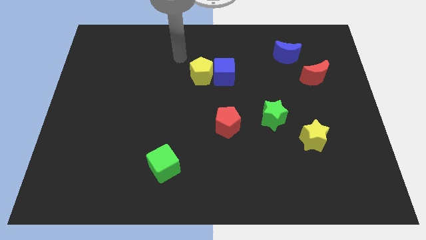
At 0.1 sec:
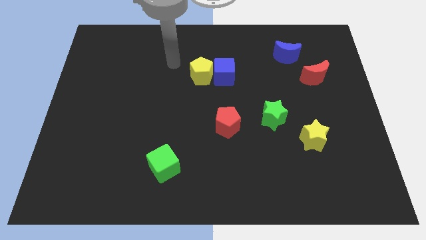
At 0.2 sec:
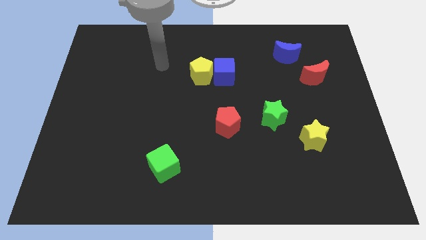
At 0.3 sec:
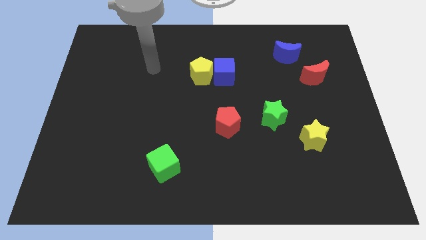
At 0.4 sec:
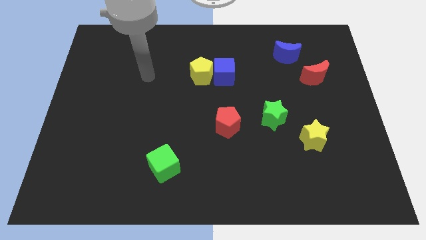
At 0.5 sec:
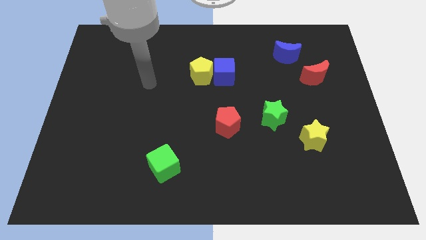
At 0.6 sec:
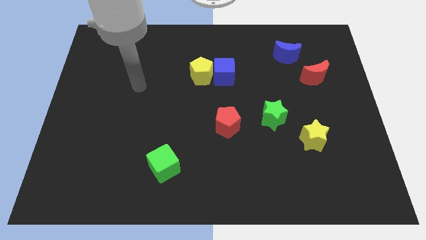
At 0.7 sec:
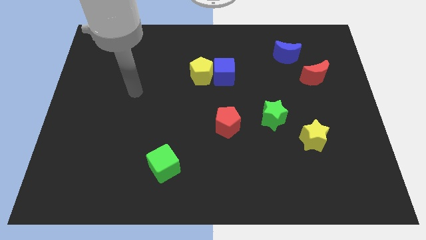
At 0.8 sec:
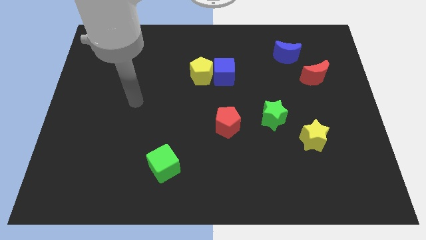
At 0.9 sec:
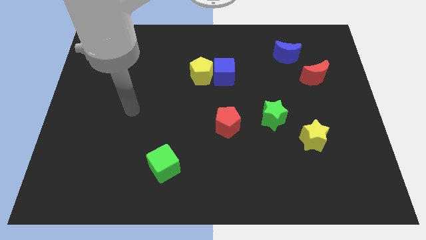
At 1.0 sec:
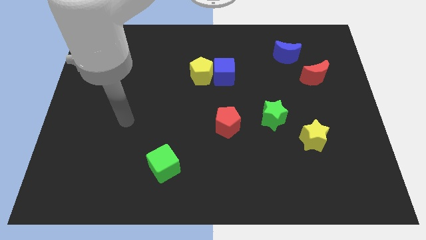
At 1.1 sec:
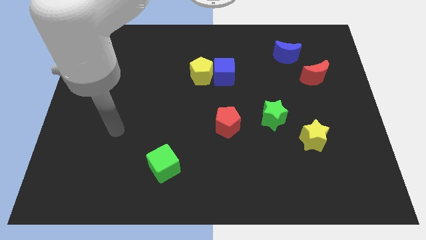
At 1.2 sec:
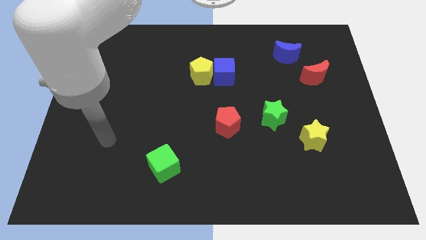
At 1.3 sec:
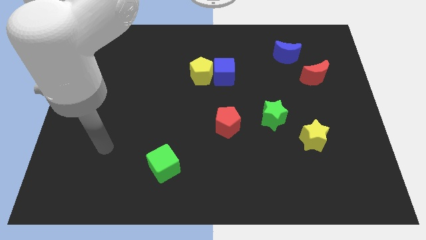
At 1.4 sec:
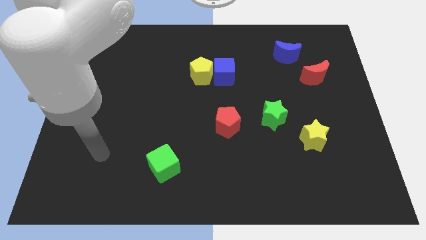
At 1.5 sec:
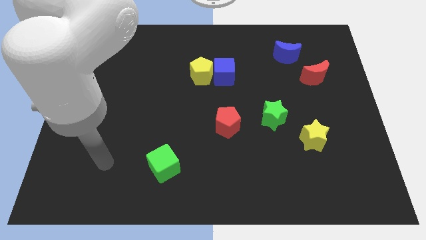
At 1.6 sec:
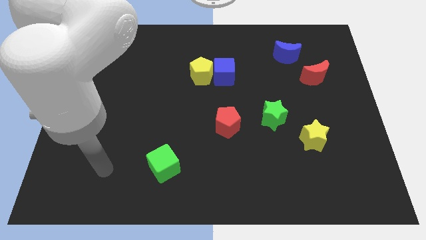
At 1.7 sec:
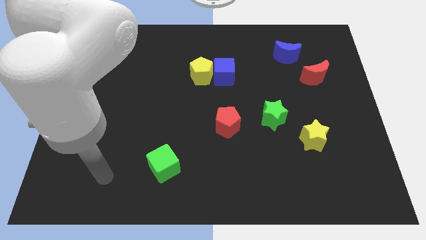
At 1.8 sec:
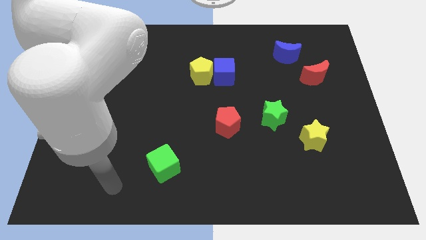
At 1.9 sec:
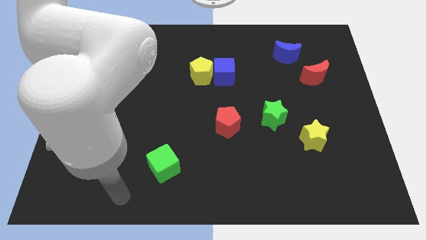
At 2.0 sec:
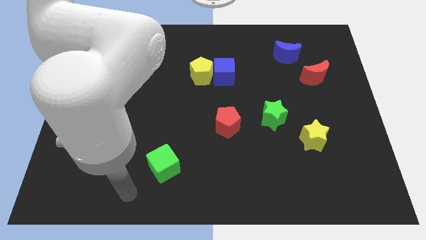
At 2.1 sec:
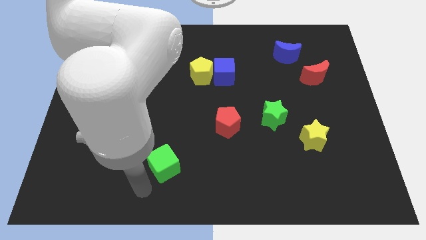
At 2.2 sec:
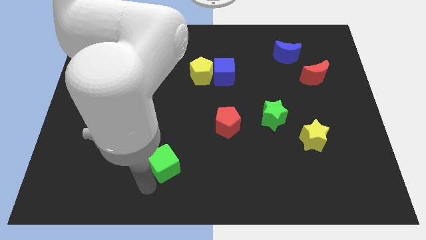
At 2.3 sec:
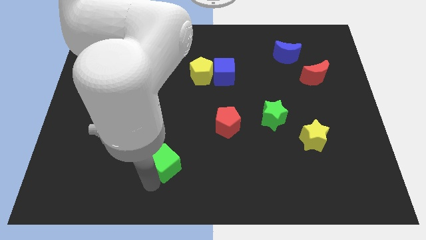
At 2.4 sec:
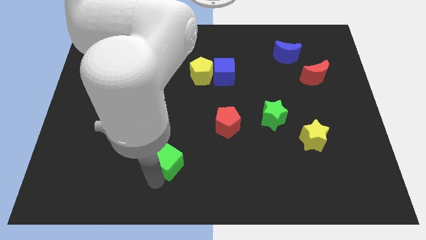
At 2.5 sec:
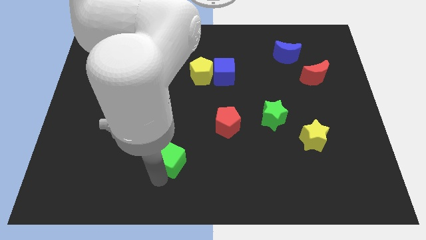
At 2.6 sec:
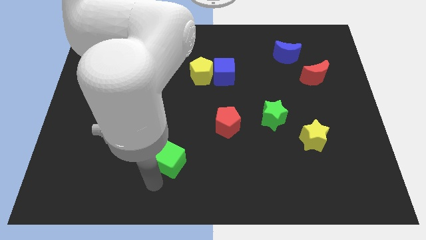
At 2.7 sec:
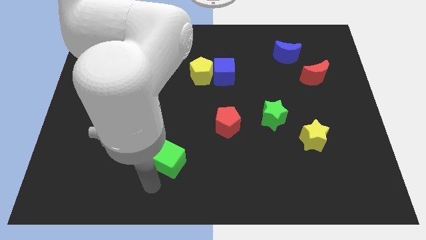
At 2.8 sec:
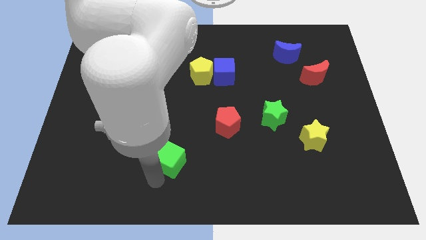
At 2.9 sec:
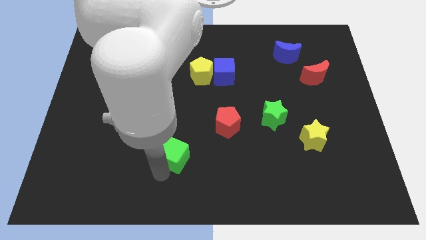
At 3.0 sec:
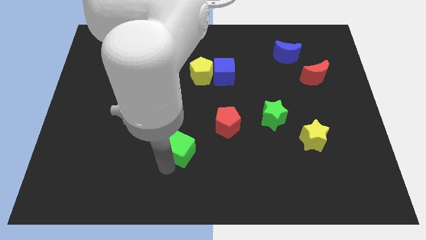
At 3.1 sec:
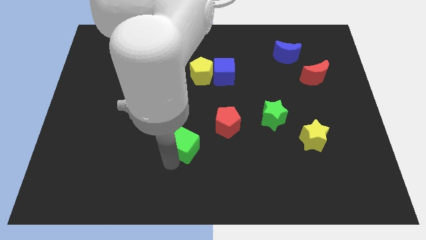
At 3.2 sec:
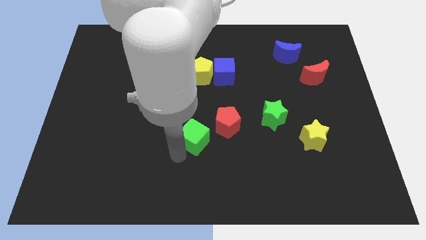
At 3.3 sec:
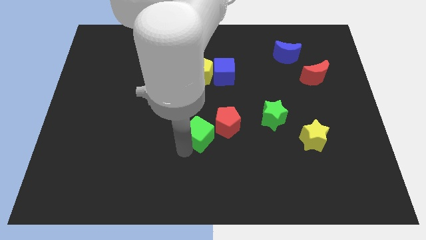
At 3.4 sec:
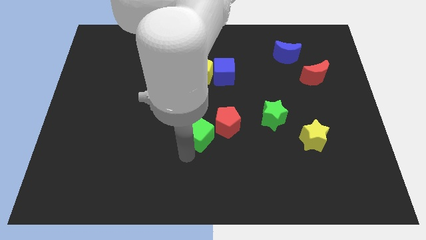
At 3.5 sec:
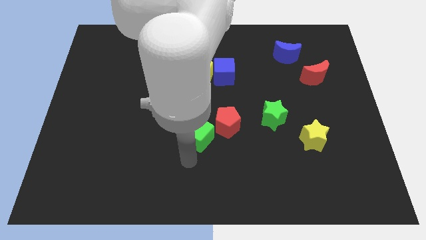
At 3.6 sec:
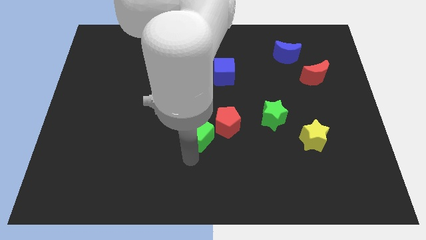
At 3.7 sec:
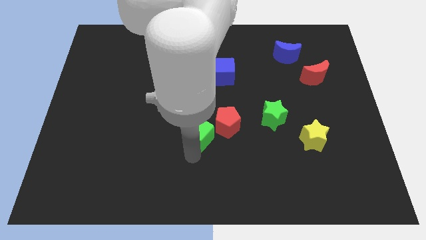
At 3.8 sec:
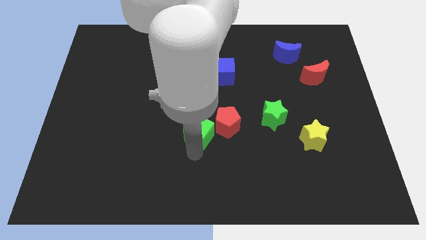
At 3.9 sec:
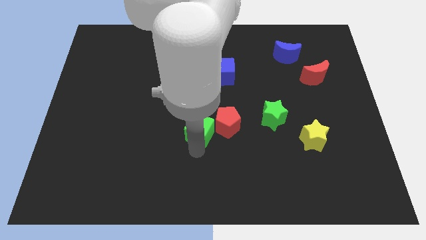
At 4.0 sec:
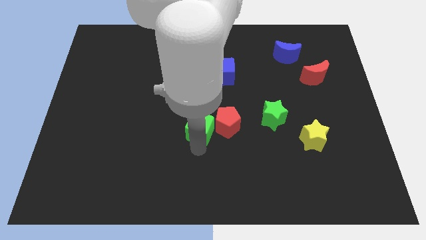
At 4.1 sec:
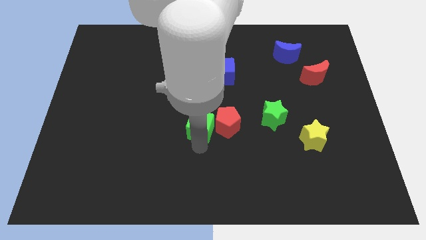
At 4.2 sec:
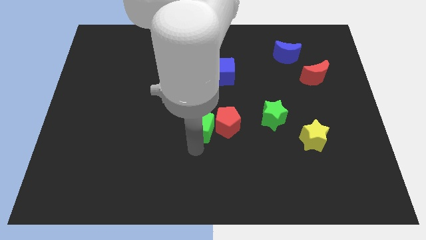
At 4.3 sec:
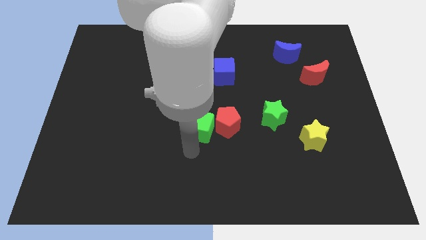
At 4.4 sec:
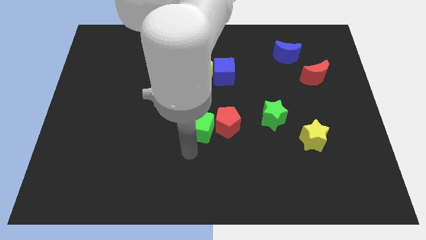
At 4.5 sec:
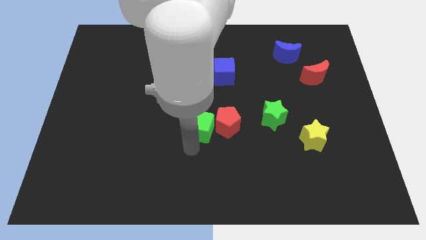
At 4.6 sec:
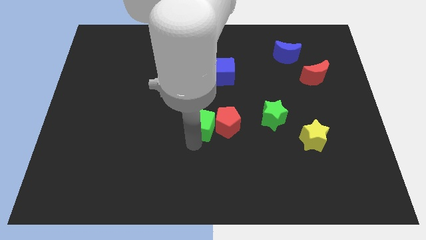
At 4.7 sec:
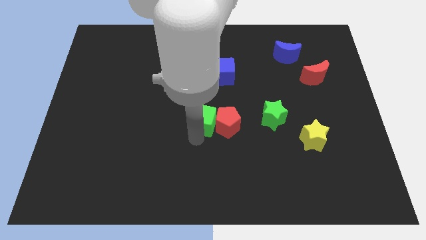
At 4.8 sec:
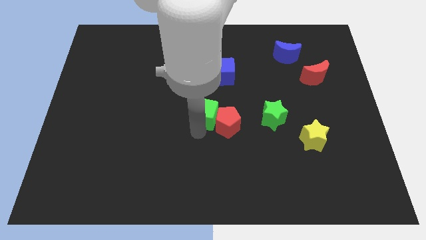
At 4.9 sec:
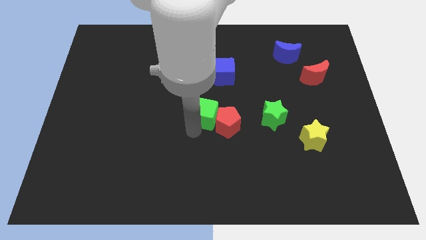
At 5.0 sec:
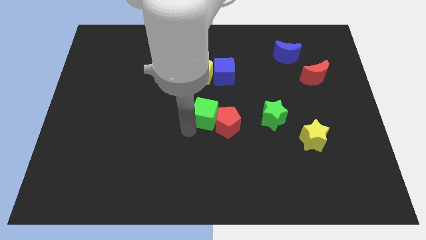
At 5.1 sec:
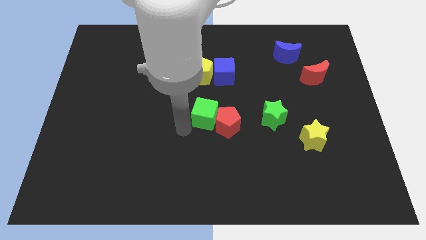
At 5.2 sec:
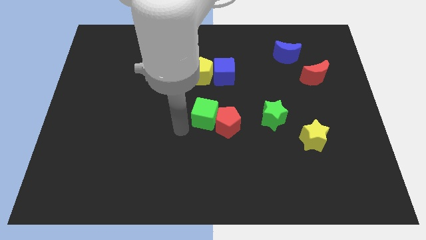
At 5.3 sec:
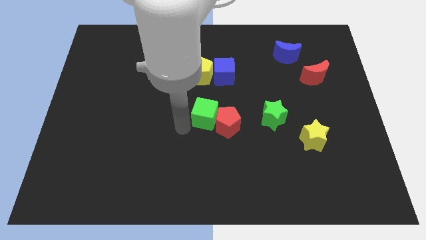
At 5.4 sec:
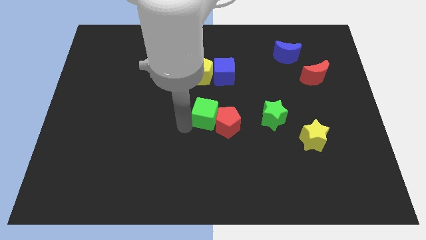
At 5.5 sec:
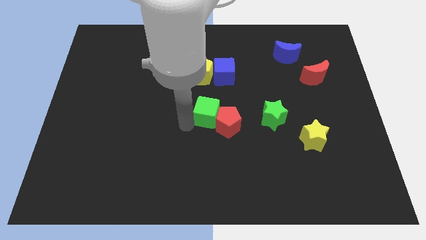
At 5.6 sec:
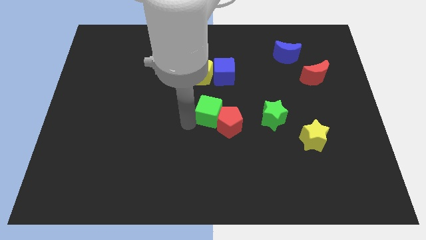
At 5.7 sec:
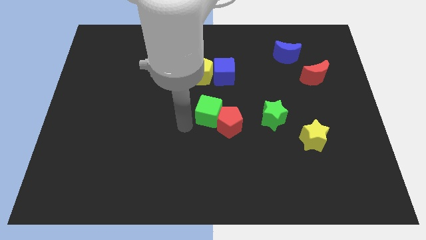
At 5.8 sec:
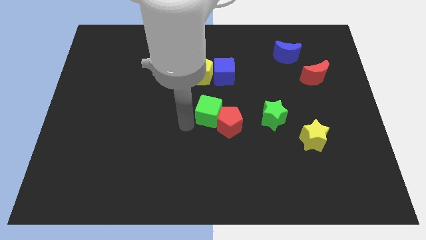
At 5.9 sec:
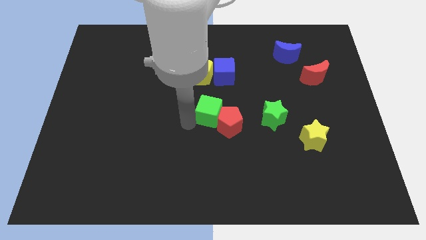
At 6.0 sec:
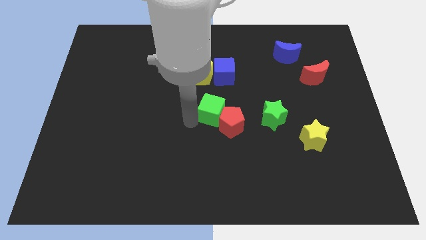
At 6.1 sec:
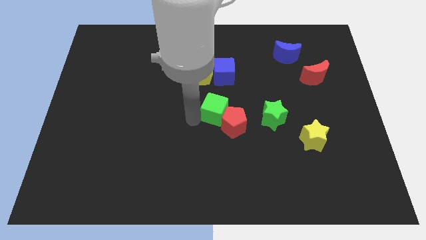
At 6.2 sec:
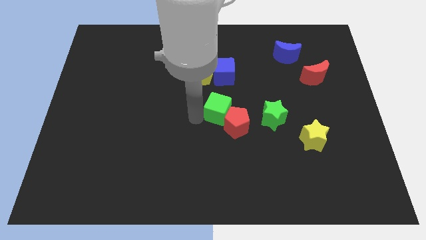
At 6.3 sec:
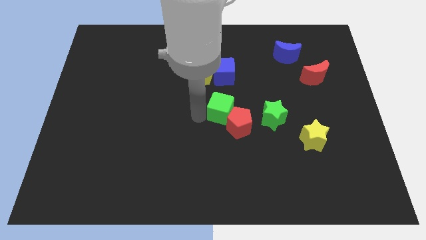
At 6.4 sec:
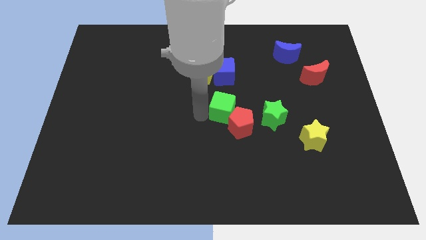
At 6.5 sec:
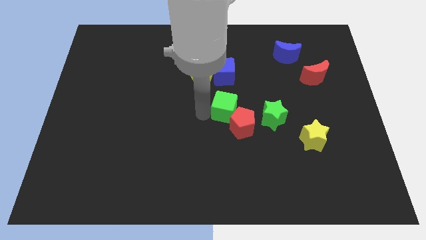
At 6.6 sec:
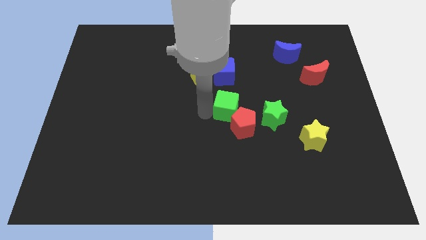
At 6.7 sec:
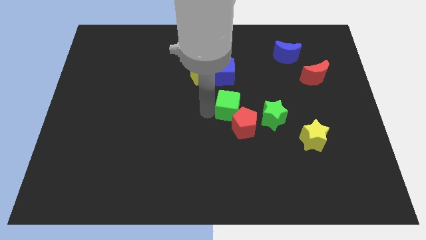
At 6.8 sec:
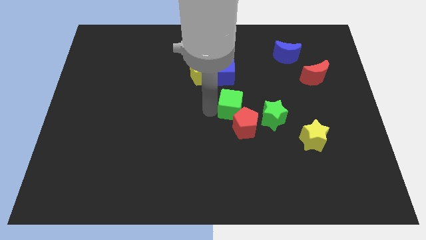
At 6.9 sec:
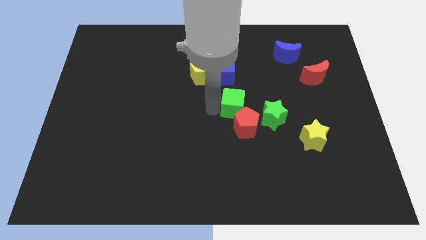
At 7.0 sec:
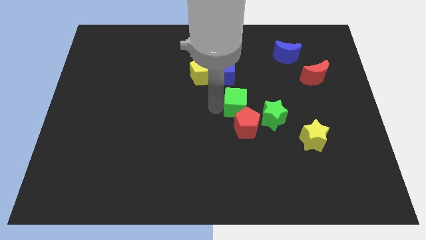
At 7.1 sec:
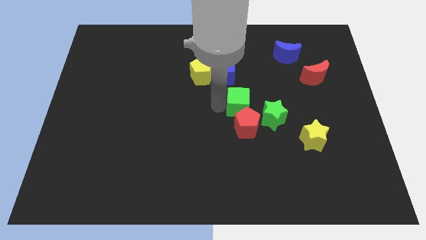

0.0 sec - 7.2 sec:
slide the green cube to the bottom right of the blue cube
